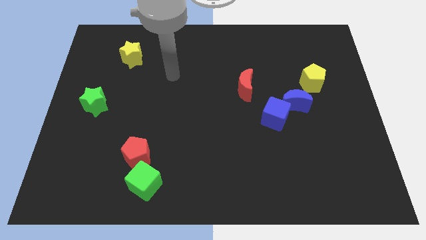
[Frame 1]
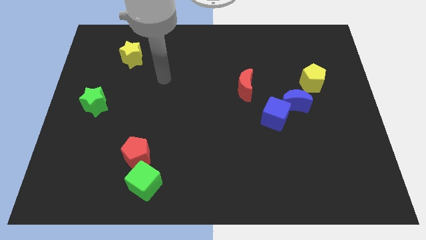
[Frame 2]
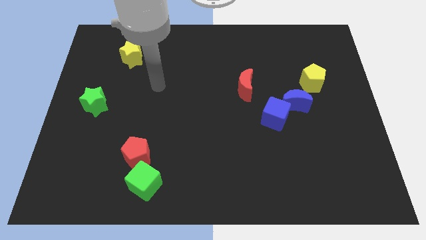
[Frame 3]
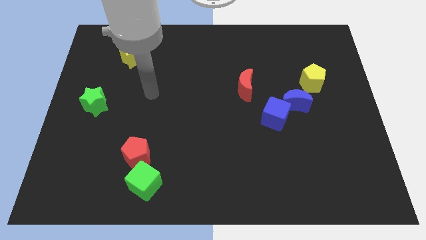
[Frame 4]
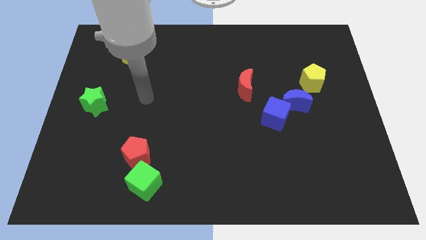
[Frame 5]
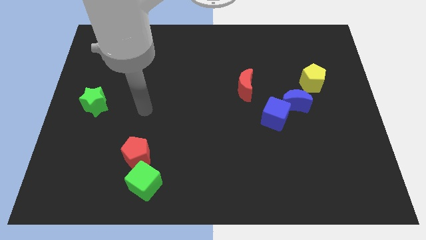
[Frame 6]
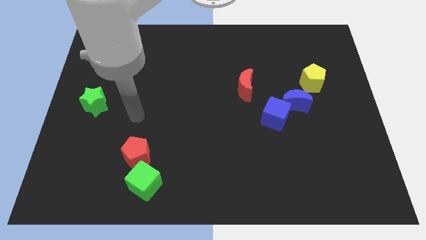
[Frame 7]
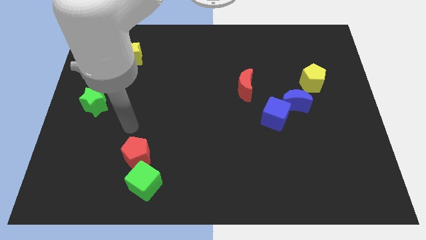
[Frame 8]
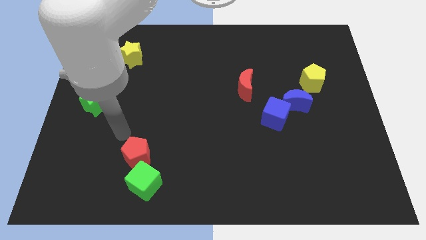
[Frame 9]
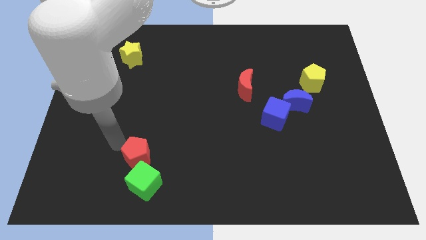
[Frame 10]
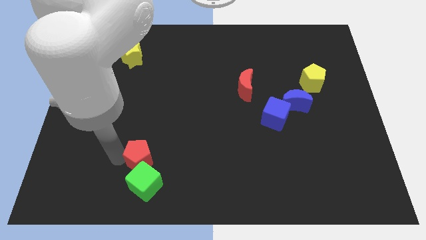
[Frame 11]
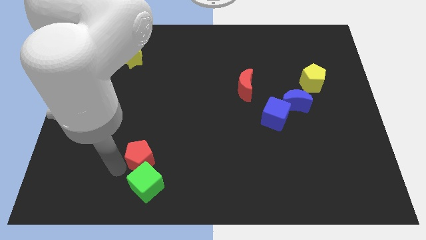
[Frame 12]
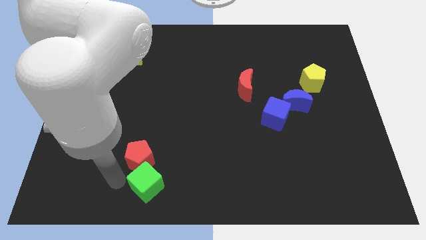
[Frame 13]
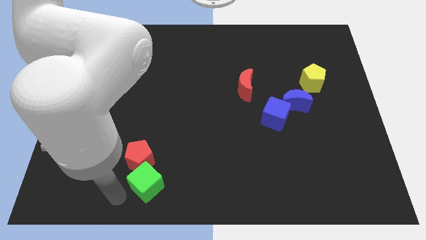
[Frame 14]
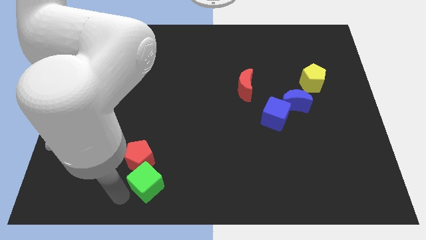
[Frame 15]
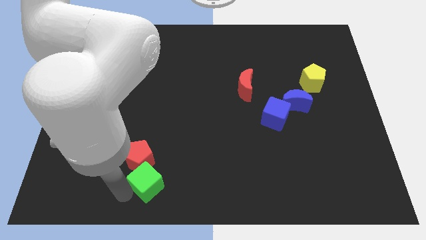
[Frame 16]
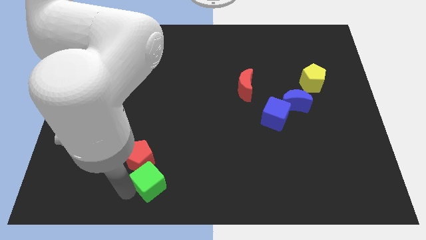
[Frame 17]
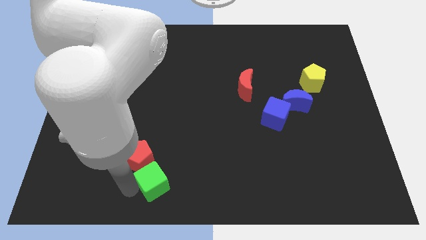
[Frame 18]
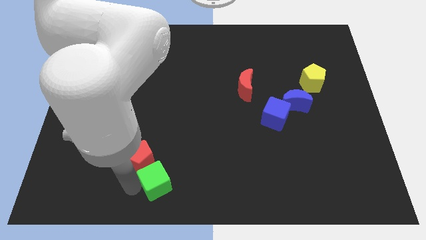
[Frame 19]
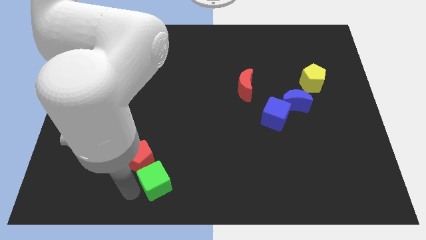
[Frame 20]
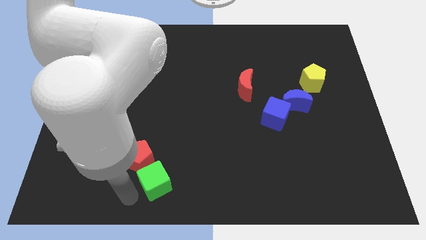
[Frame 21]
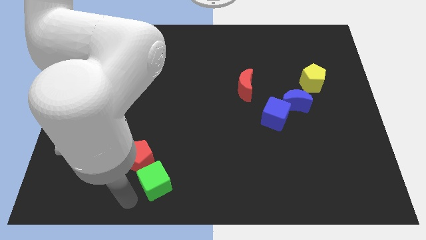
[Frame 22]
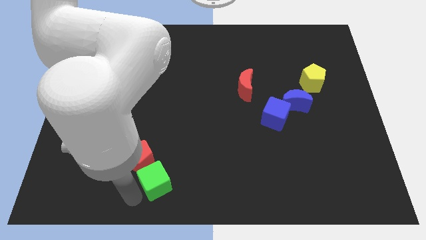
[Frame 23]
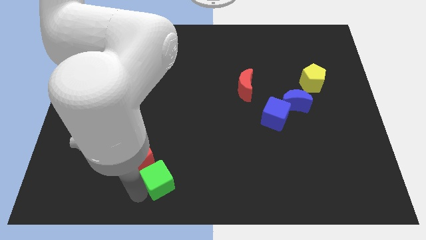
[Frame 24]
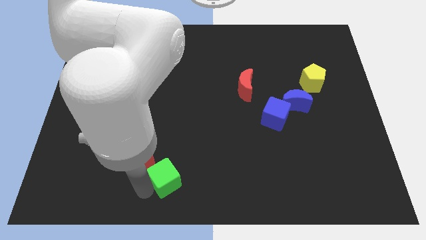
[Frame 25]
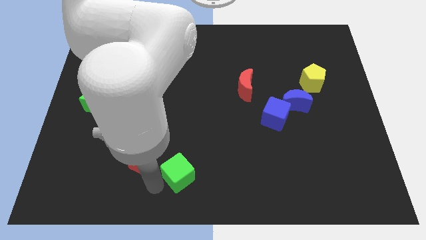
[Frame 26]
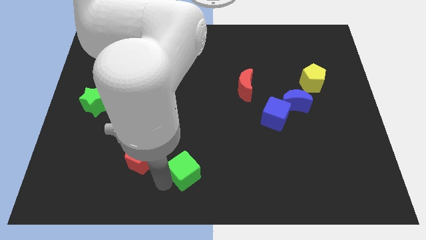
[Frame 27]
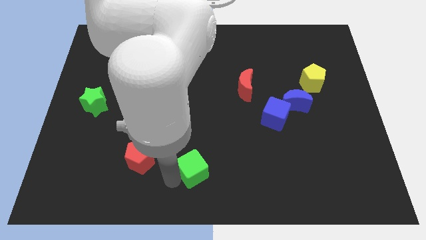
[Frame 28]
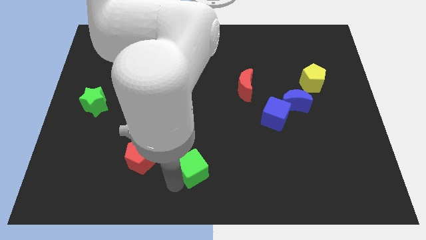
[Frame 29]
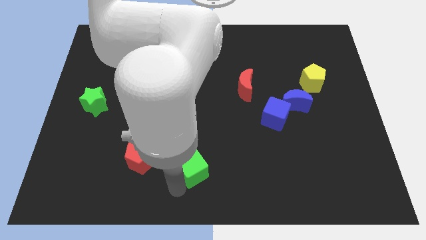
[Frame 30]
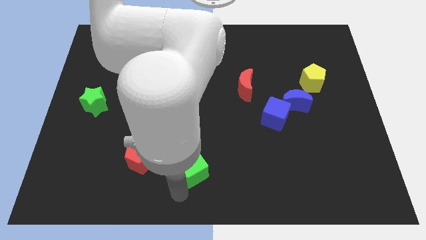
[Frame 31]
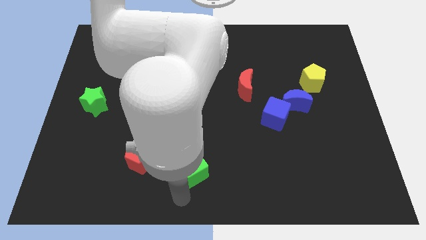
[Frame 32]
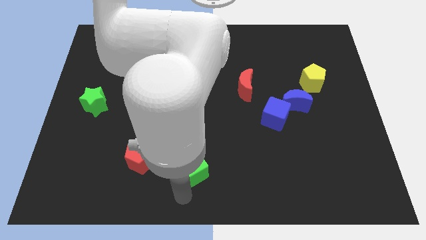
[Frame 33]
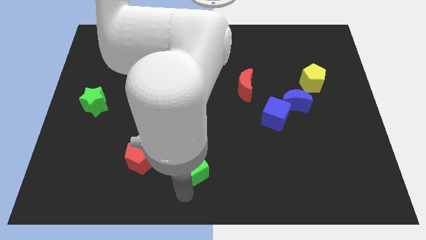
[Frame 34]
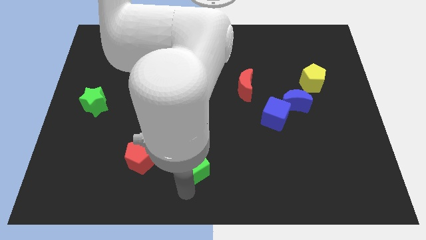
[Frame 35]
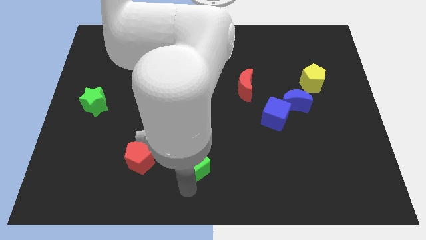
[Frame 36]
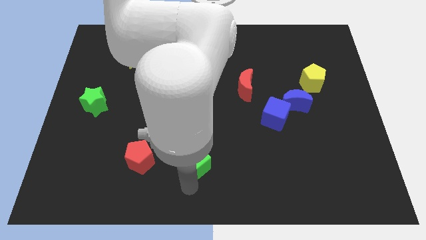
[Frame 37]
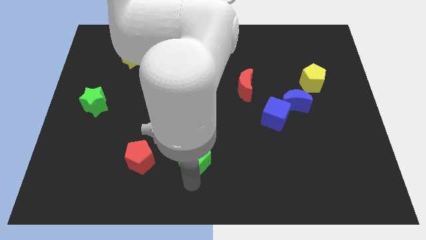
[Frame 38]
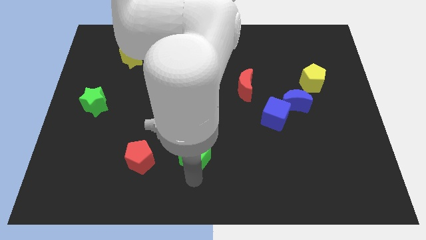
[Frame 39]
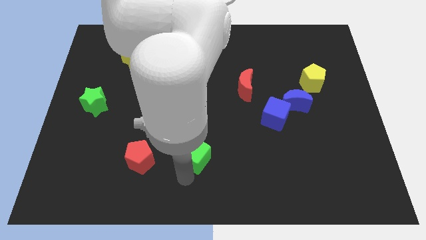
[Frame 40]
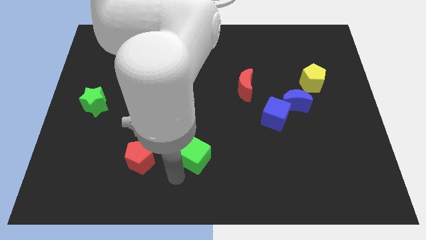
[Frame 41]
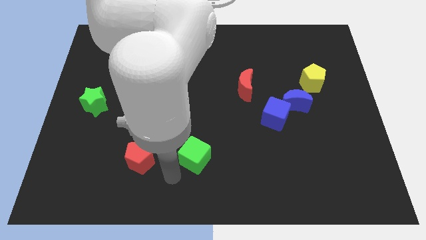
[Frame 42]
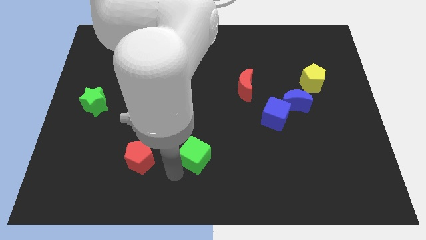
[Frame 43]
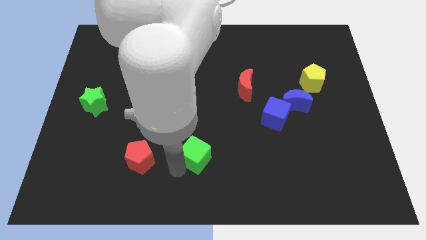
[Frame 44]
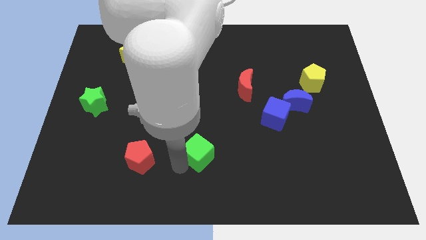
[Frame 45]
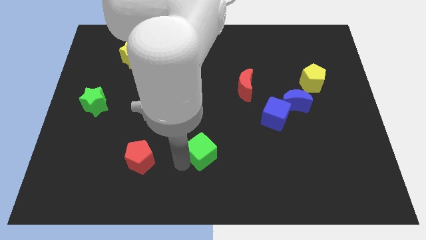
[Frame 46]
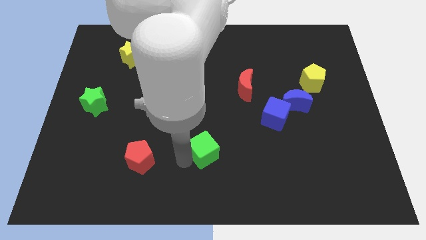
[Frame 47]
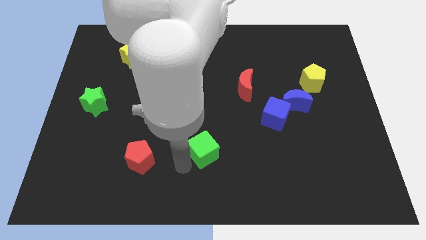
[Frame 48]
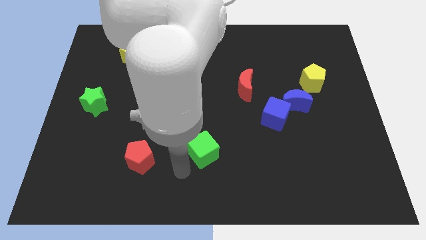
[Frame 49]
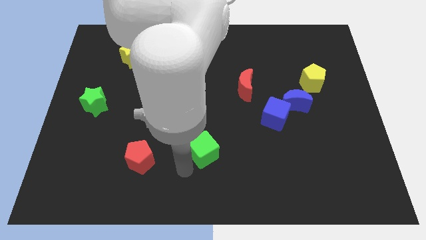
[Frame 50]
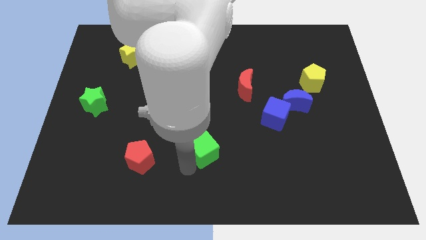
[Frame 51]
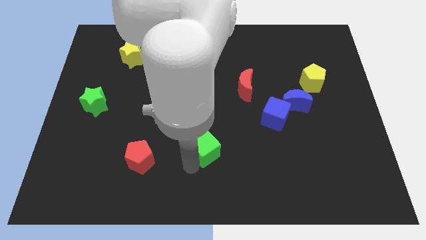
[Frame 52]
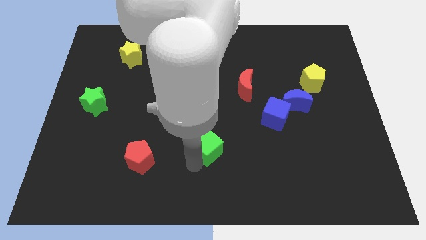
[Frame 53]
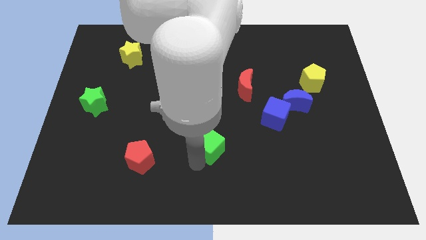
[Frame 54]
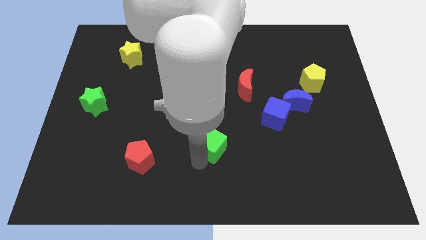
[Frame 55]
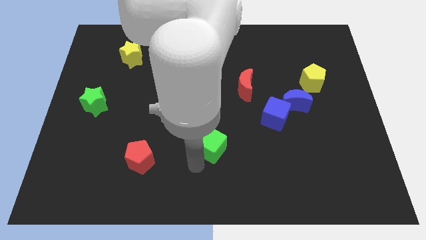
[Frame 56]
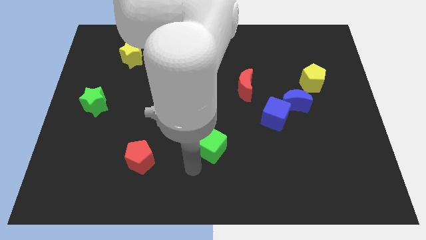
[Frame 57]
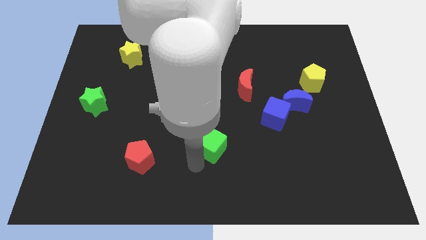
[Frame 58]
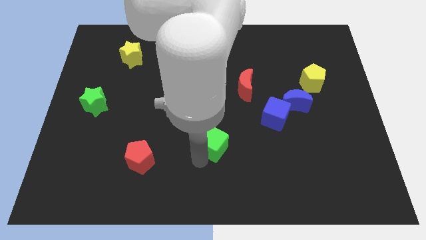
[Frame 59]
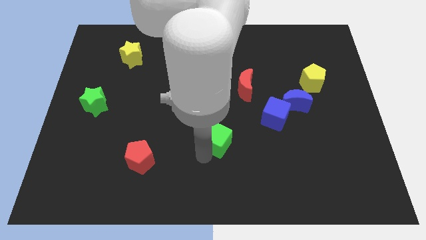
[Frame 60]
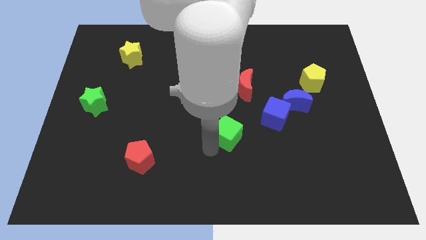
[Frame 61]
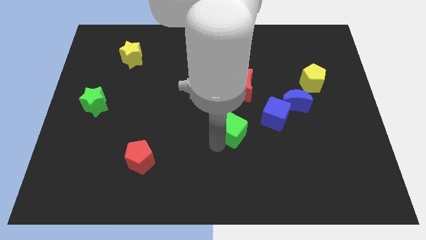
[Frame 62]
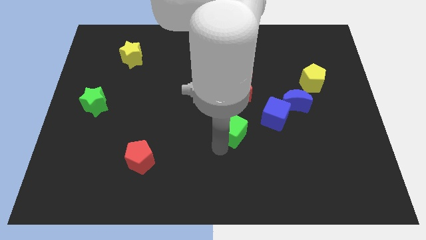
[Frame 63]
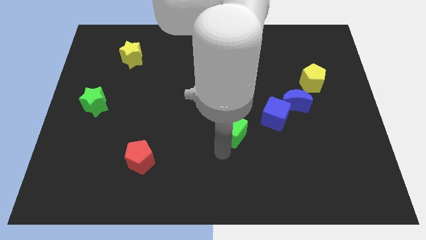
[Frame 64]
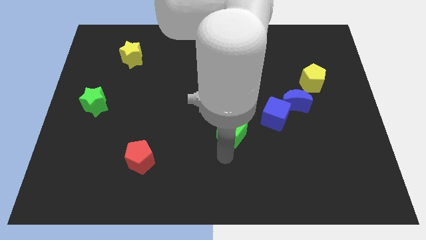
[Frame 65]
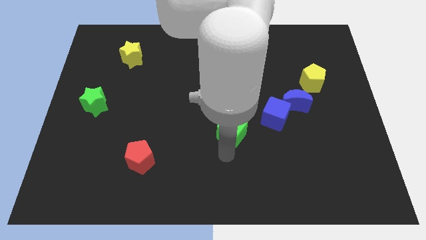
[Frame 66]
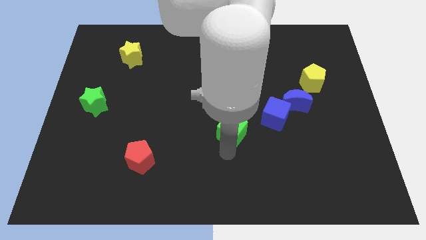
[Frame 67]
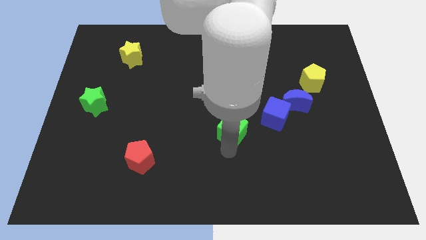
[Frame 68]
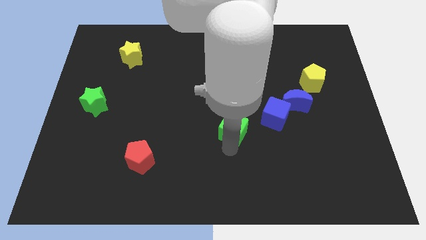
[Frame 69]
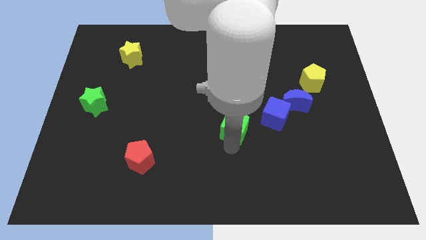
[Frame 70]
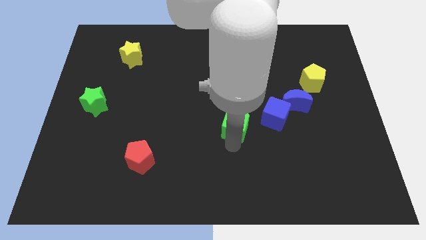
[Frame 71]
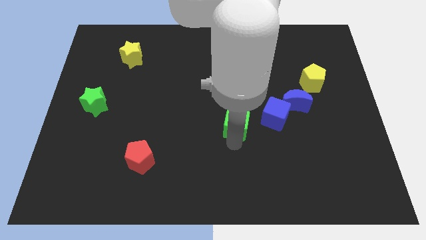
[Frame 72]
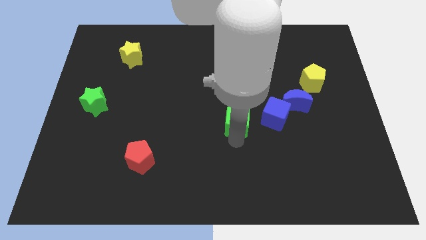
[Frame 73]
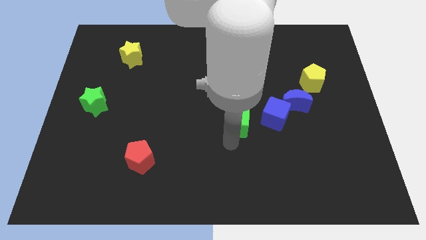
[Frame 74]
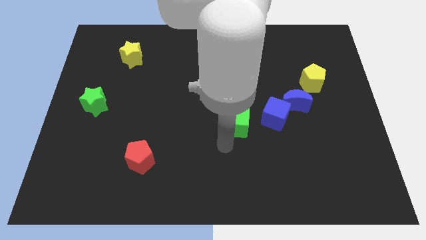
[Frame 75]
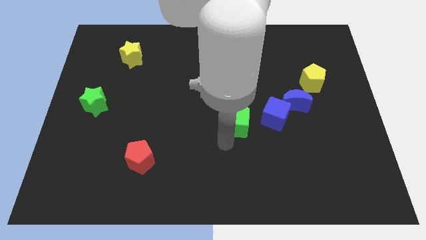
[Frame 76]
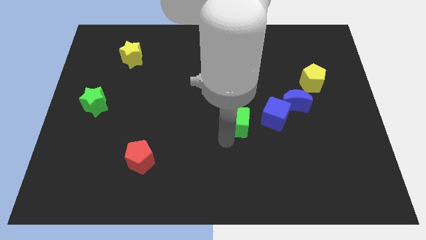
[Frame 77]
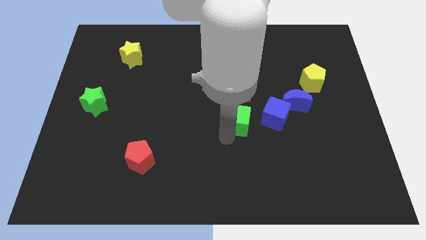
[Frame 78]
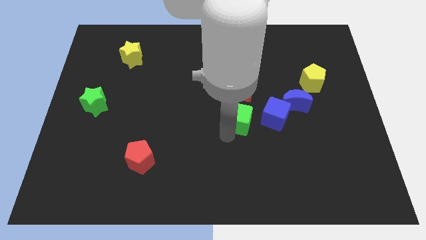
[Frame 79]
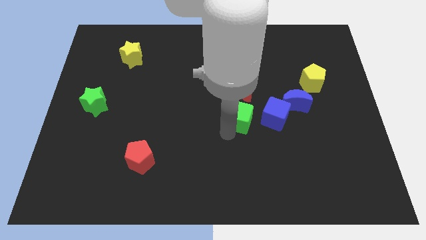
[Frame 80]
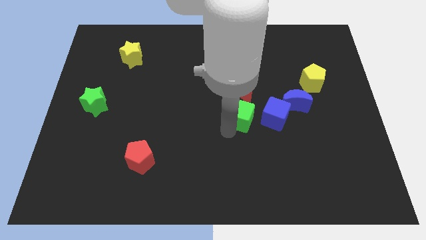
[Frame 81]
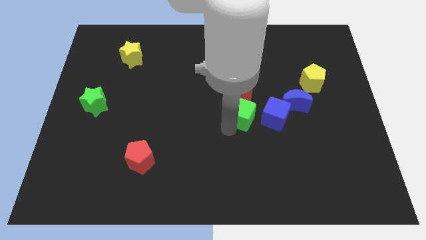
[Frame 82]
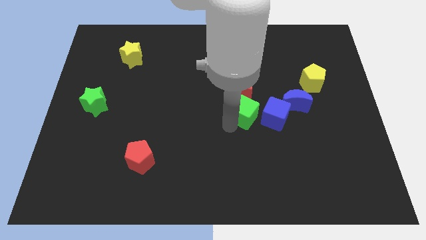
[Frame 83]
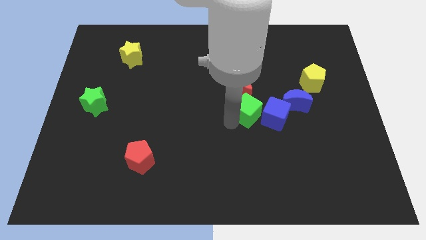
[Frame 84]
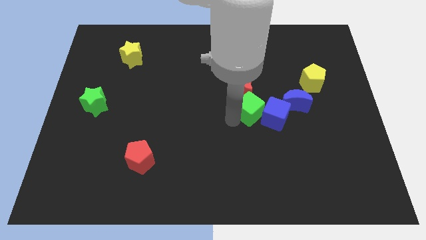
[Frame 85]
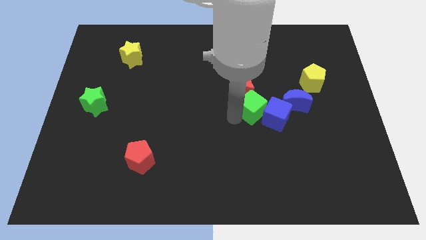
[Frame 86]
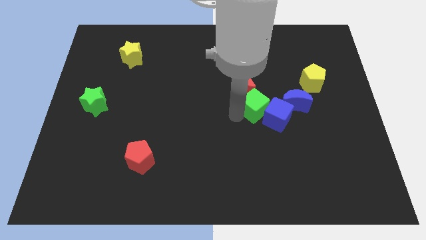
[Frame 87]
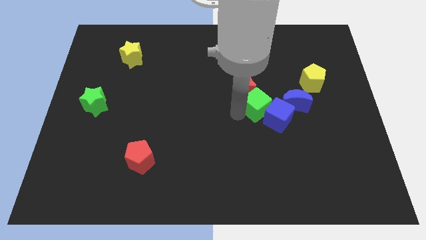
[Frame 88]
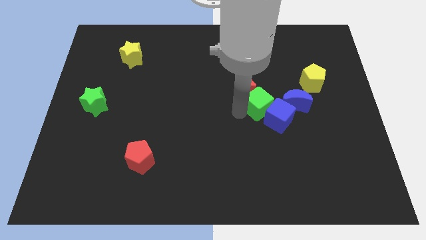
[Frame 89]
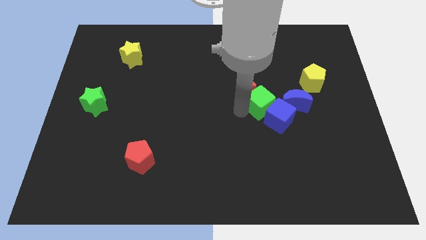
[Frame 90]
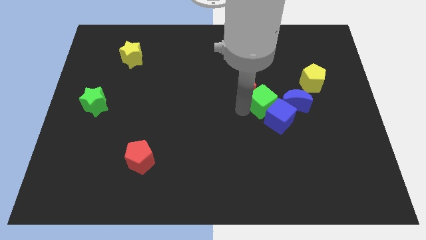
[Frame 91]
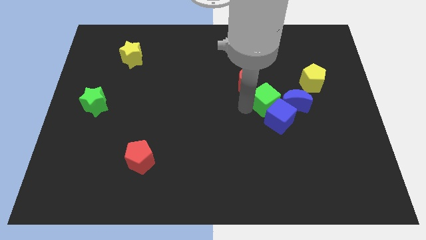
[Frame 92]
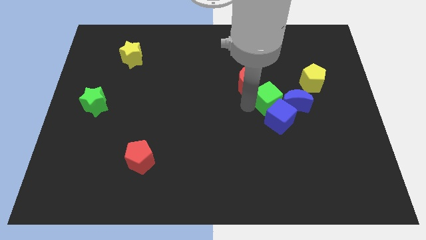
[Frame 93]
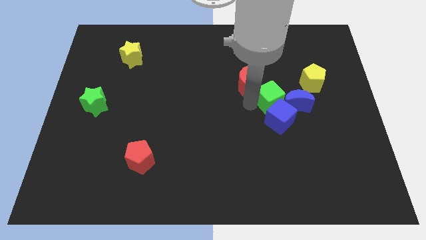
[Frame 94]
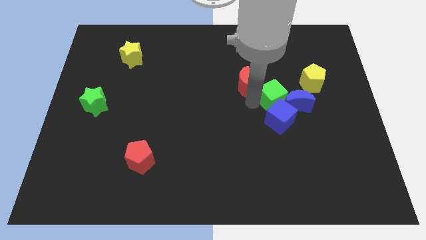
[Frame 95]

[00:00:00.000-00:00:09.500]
push the green cube close to the blue moon
